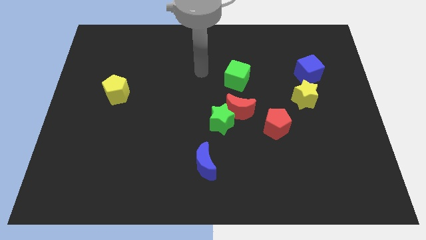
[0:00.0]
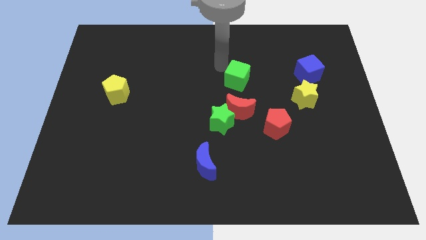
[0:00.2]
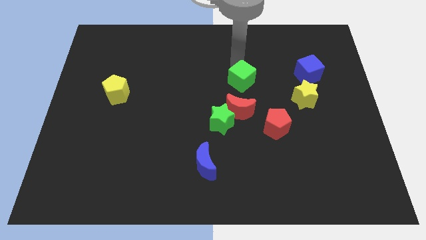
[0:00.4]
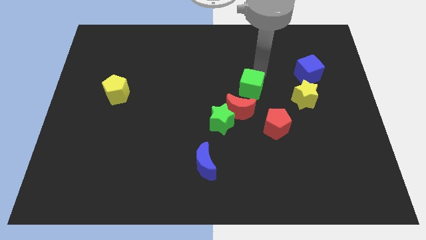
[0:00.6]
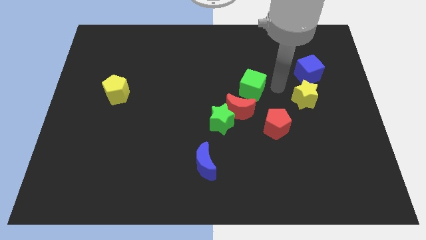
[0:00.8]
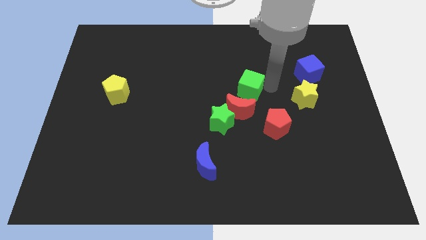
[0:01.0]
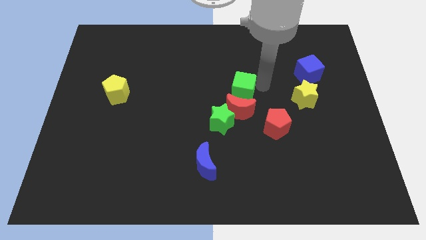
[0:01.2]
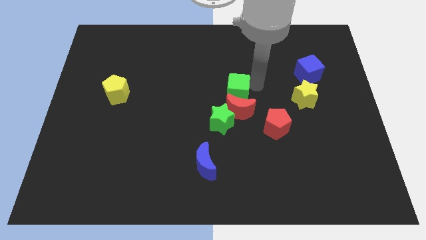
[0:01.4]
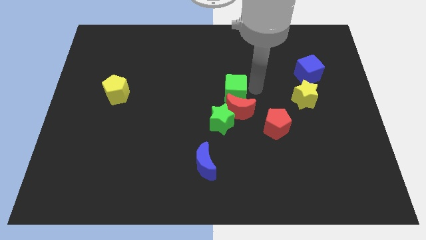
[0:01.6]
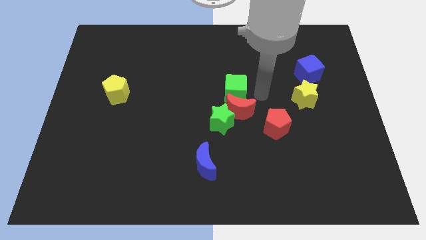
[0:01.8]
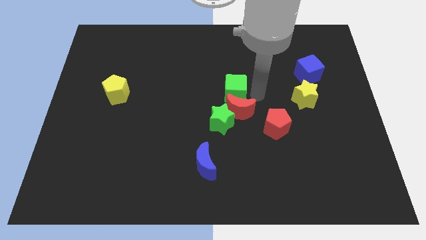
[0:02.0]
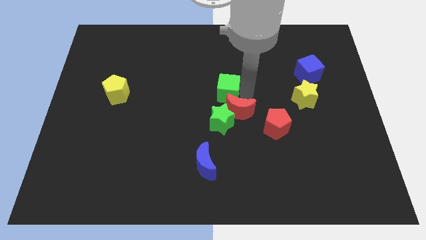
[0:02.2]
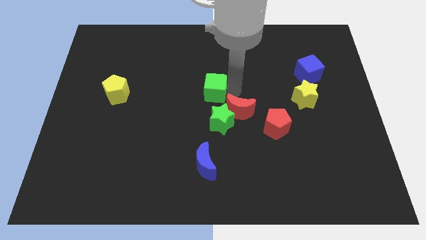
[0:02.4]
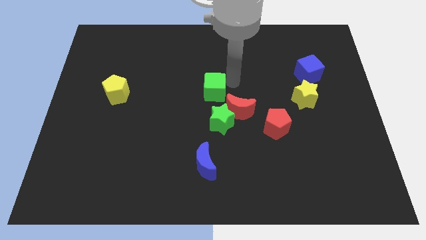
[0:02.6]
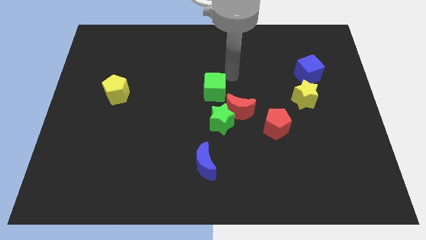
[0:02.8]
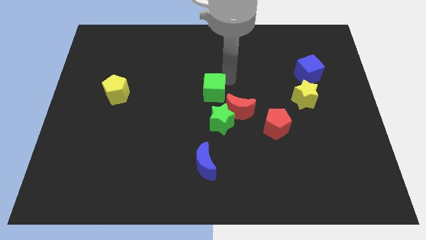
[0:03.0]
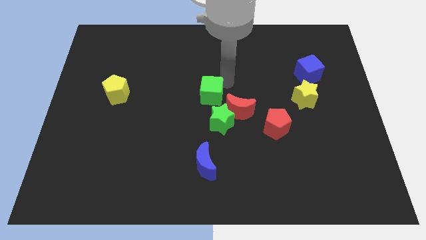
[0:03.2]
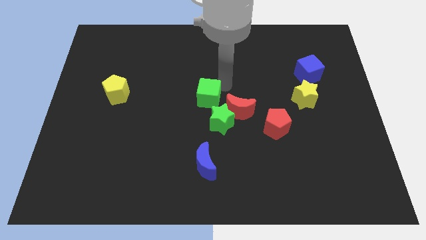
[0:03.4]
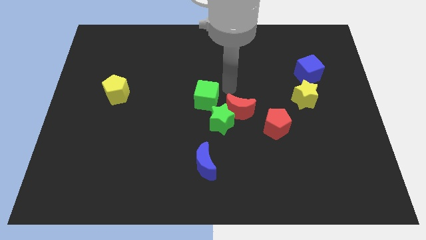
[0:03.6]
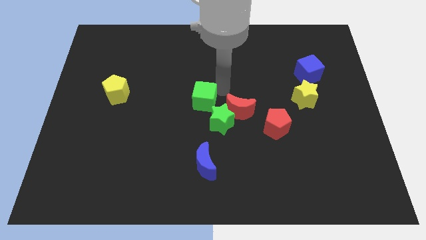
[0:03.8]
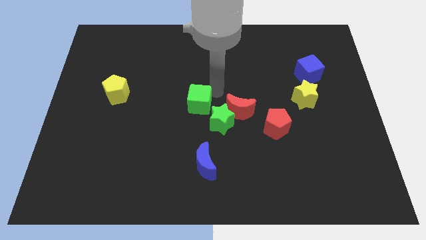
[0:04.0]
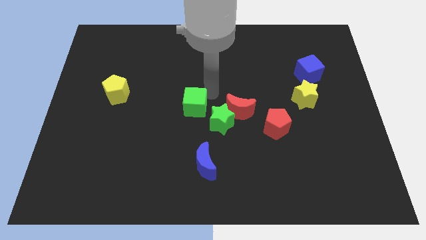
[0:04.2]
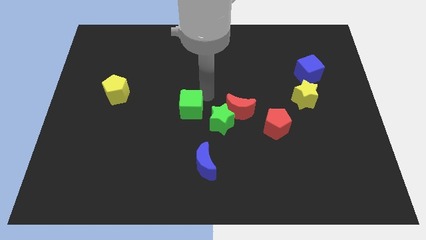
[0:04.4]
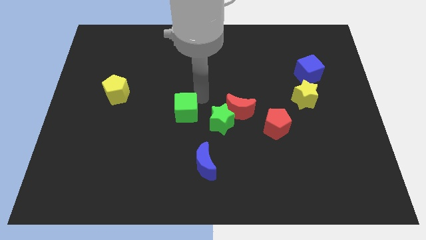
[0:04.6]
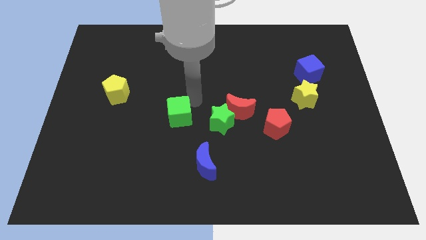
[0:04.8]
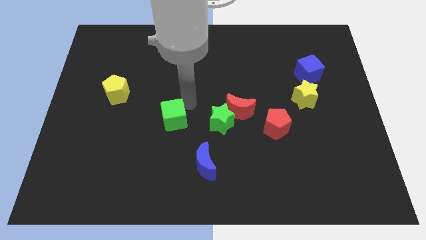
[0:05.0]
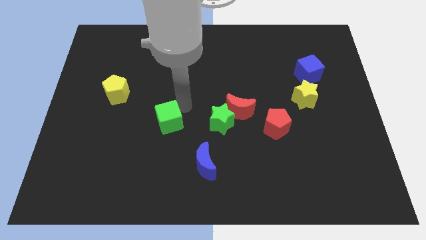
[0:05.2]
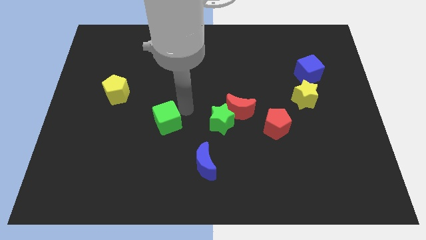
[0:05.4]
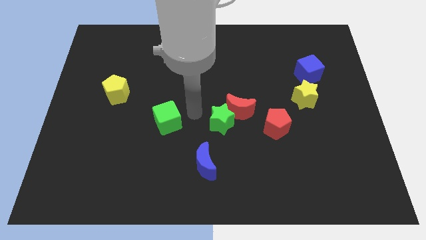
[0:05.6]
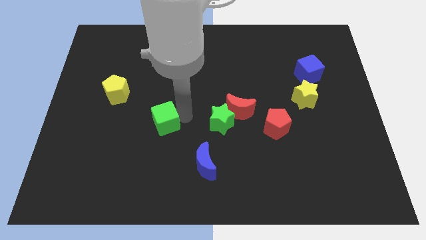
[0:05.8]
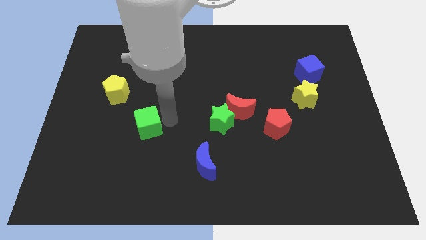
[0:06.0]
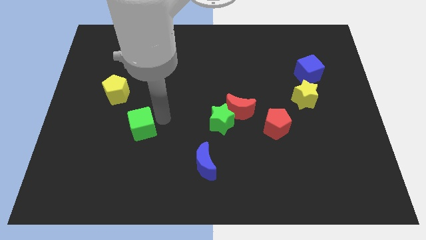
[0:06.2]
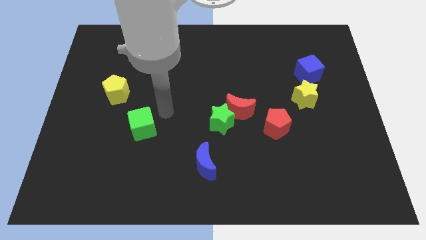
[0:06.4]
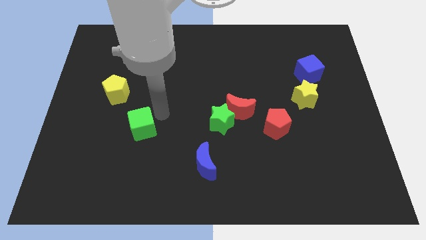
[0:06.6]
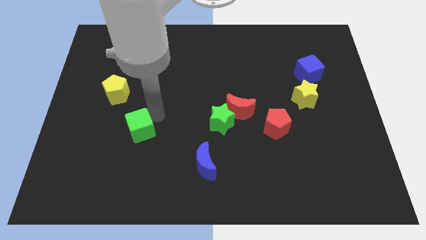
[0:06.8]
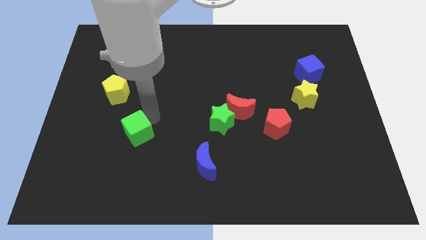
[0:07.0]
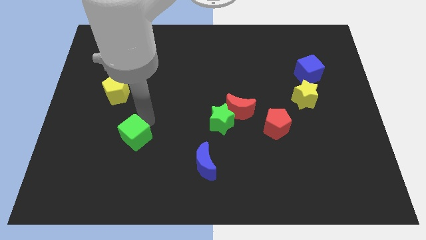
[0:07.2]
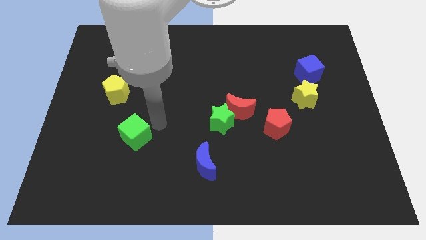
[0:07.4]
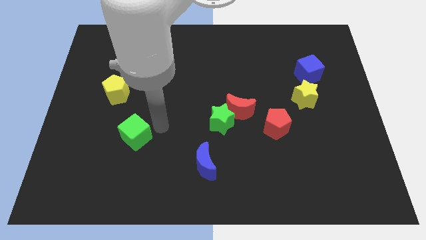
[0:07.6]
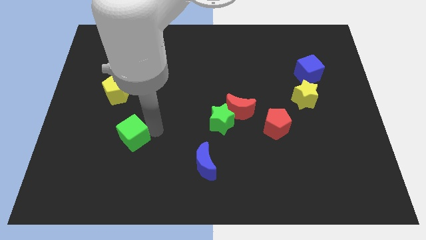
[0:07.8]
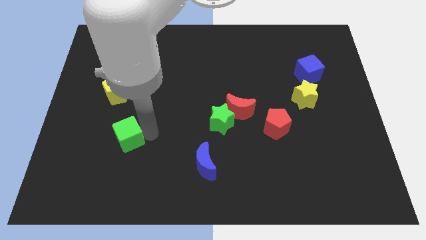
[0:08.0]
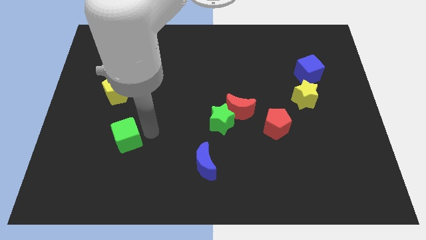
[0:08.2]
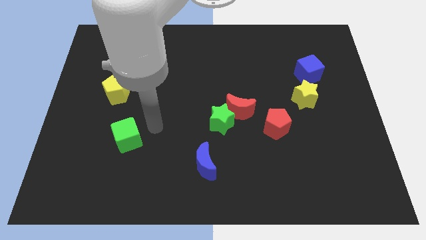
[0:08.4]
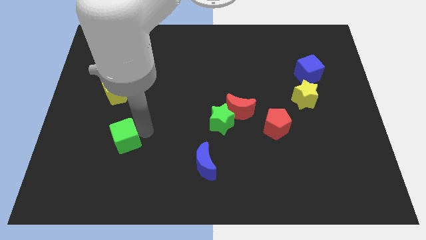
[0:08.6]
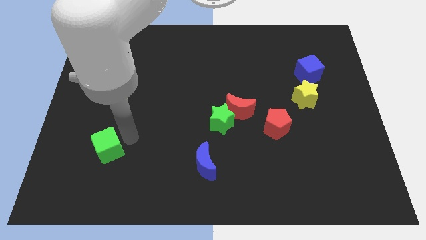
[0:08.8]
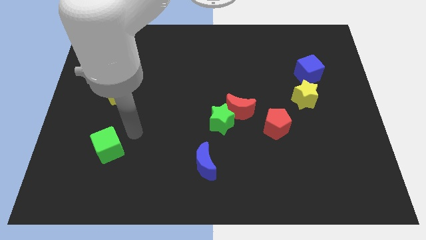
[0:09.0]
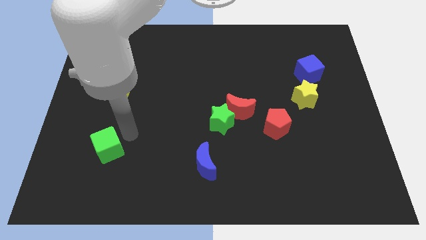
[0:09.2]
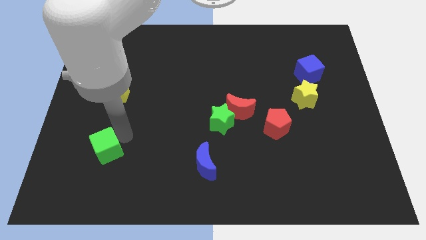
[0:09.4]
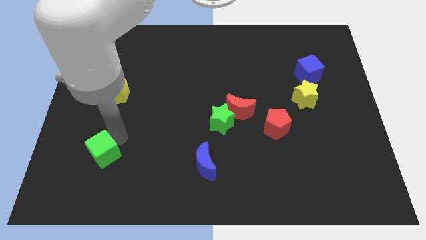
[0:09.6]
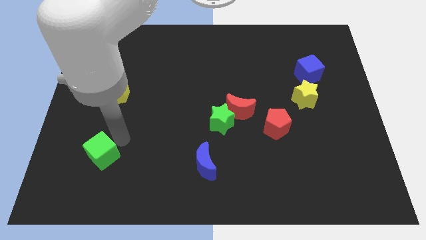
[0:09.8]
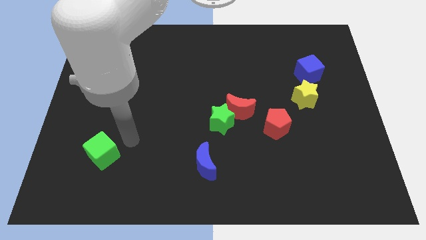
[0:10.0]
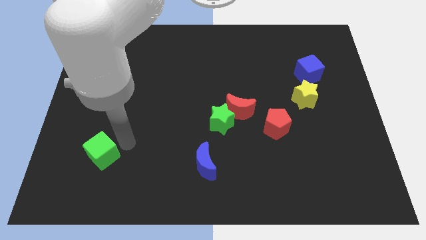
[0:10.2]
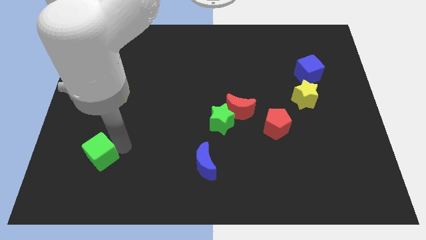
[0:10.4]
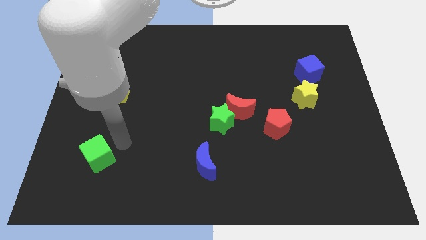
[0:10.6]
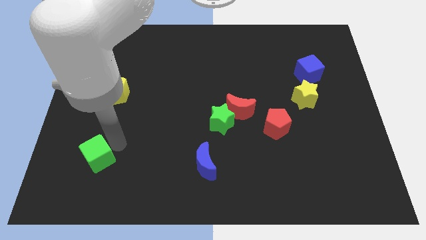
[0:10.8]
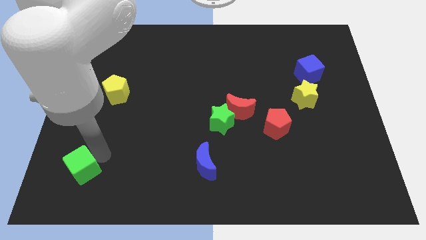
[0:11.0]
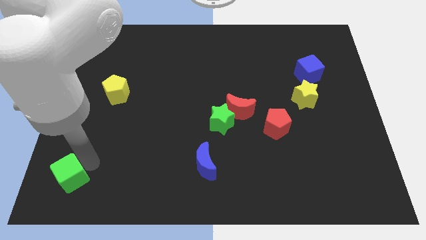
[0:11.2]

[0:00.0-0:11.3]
slide the green cube to the bottom left

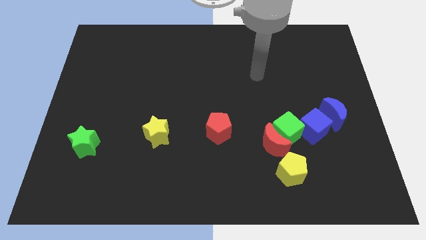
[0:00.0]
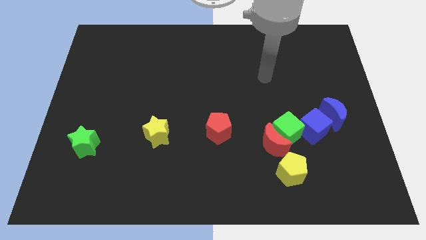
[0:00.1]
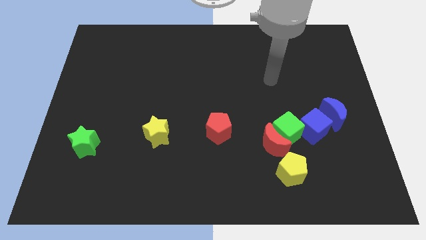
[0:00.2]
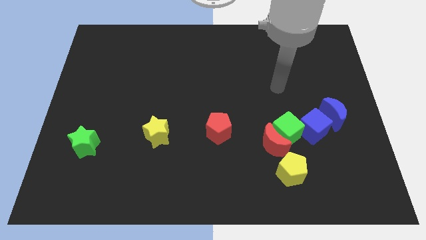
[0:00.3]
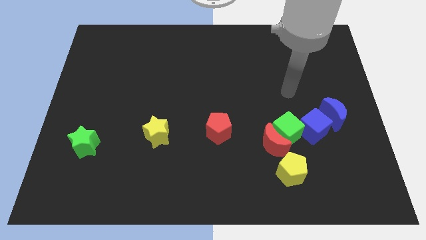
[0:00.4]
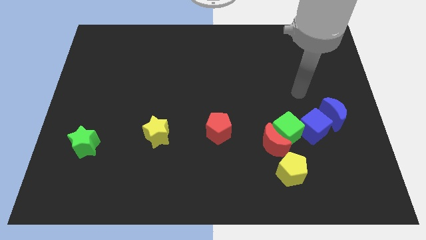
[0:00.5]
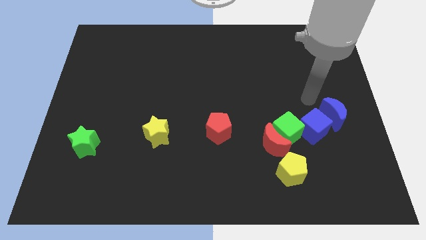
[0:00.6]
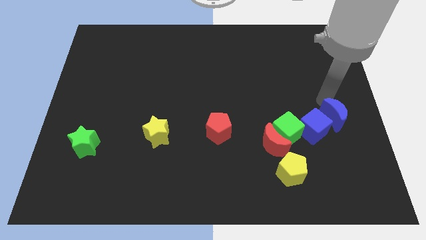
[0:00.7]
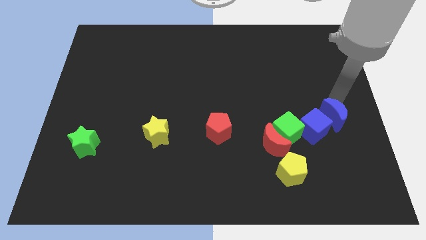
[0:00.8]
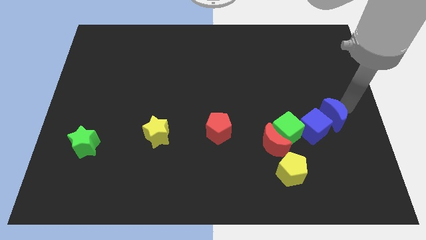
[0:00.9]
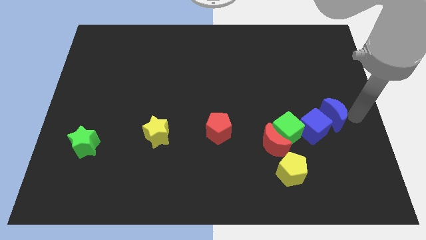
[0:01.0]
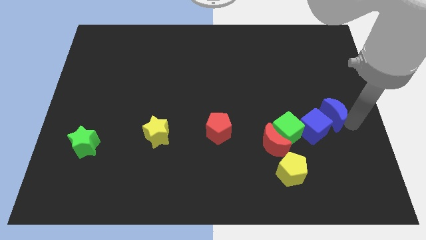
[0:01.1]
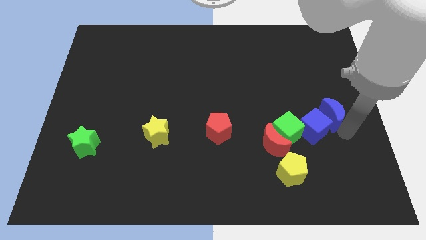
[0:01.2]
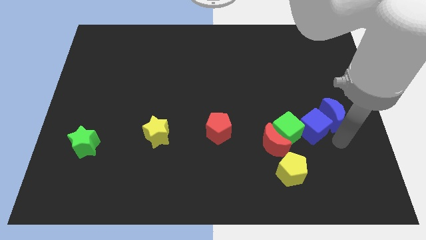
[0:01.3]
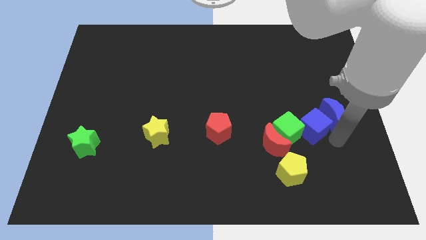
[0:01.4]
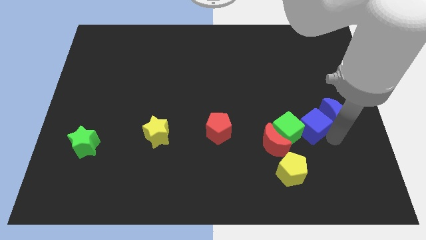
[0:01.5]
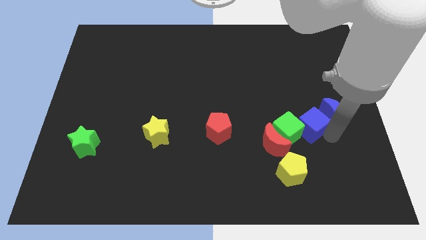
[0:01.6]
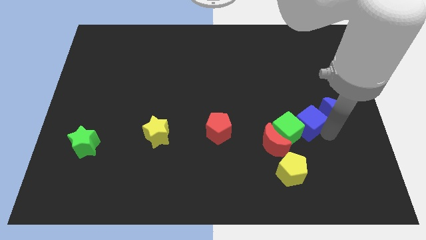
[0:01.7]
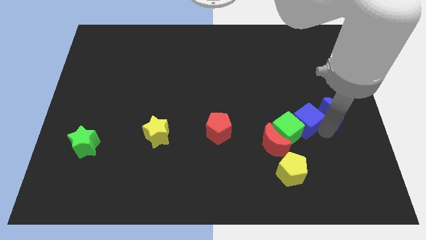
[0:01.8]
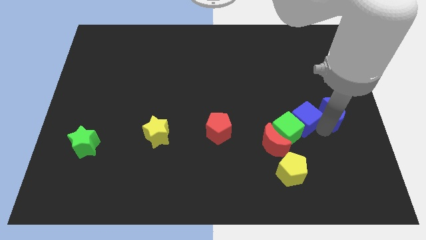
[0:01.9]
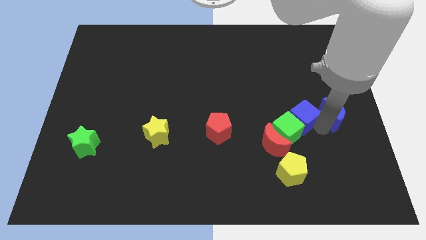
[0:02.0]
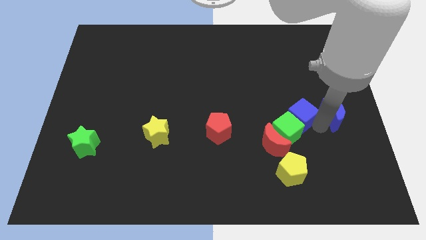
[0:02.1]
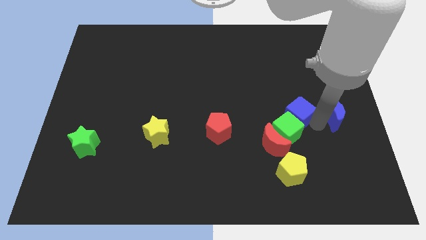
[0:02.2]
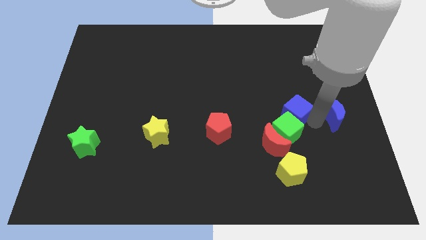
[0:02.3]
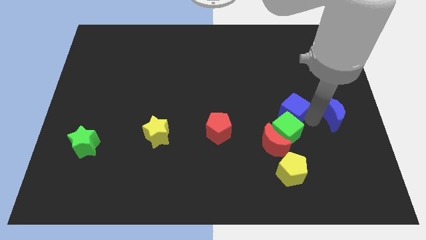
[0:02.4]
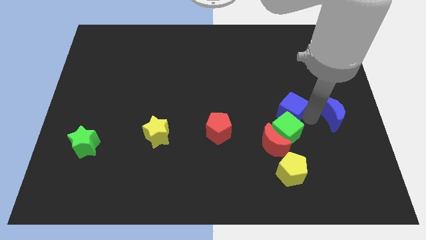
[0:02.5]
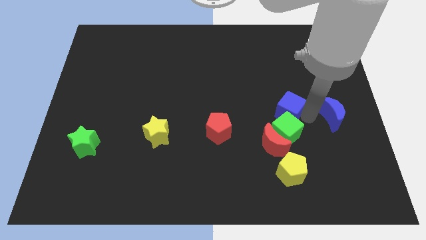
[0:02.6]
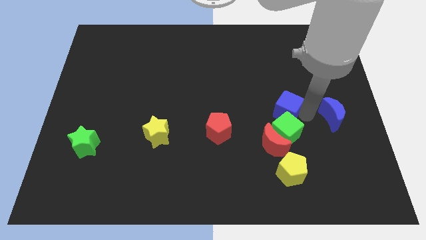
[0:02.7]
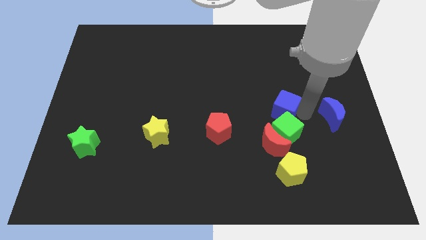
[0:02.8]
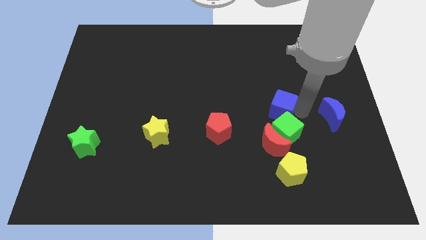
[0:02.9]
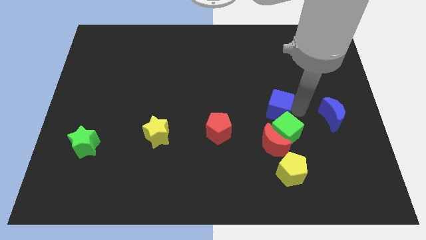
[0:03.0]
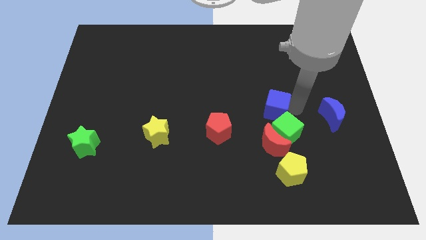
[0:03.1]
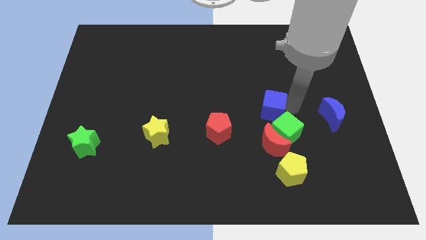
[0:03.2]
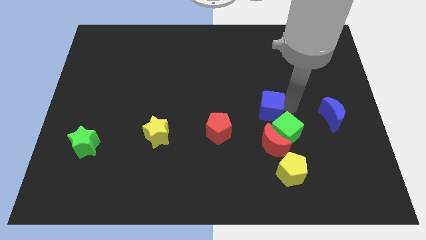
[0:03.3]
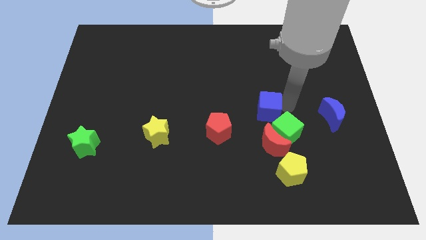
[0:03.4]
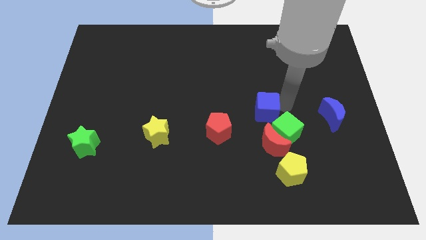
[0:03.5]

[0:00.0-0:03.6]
move the blue cube to the center
